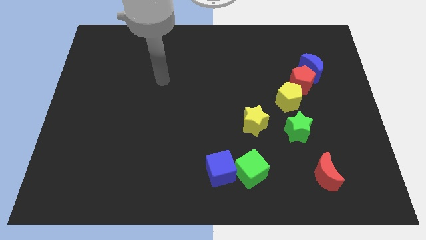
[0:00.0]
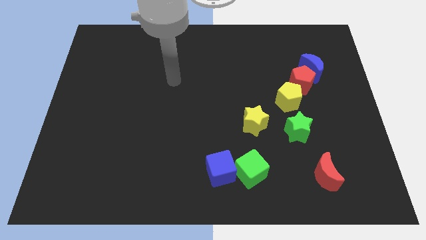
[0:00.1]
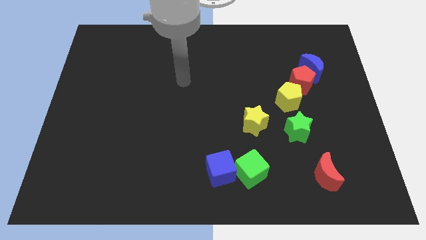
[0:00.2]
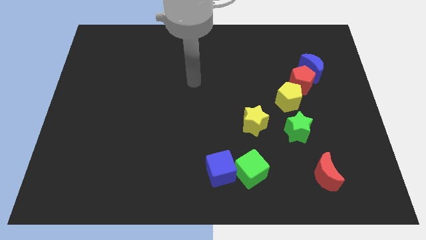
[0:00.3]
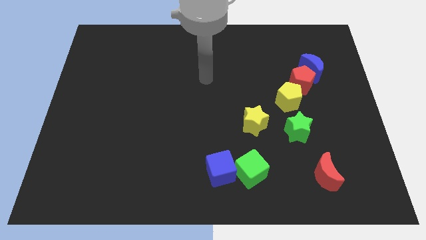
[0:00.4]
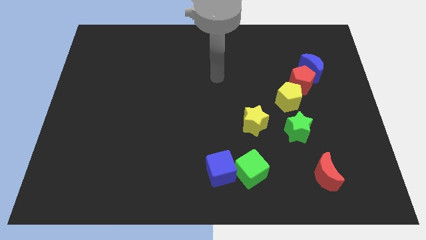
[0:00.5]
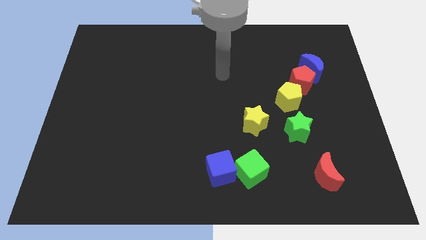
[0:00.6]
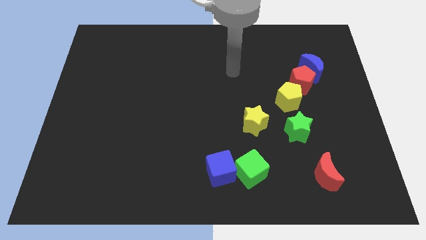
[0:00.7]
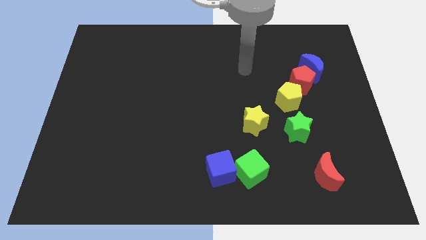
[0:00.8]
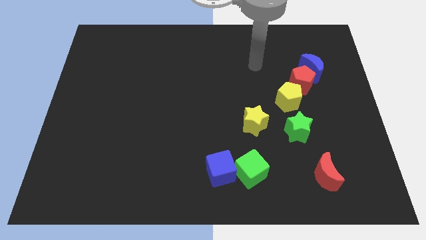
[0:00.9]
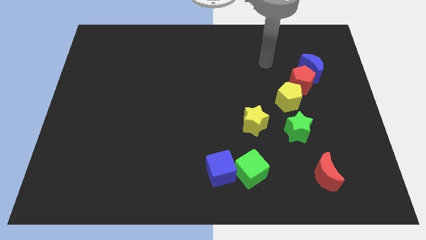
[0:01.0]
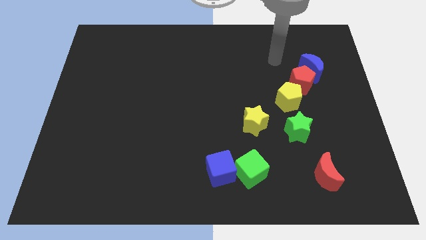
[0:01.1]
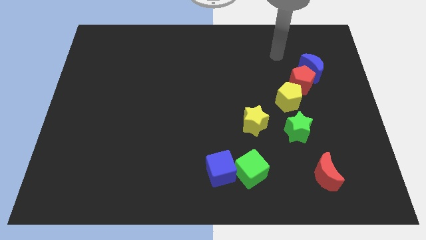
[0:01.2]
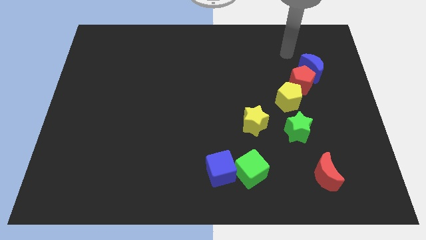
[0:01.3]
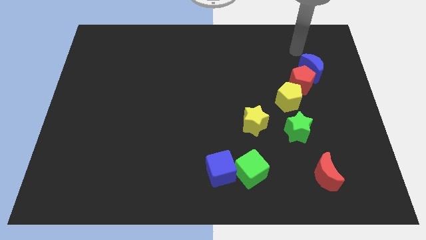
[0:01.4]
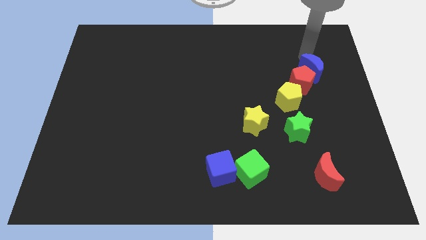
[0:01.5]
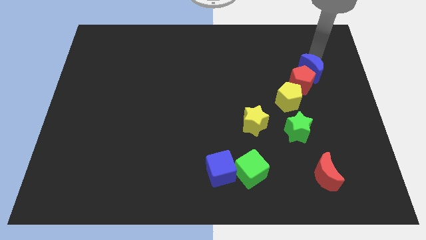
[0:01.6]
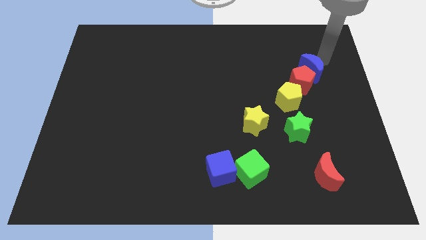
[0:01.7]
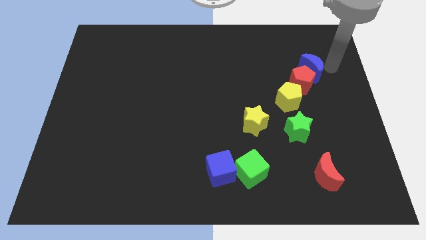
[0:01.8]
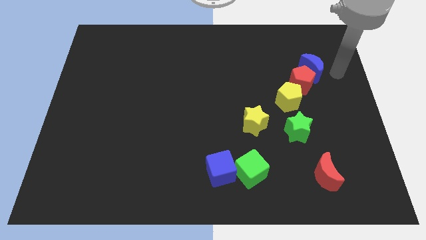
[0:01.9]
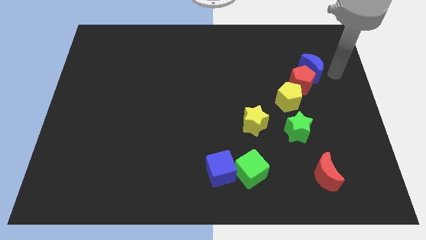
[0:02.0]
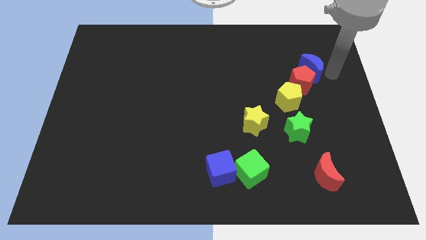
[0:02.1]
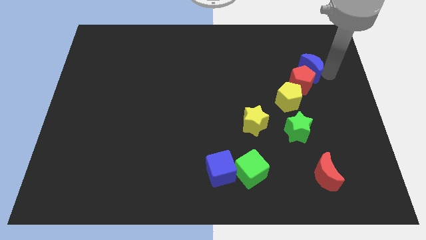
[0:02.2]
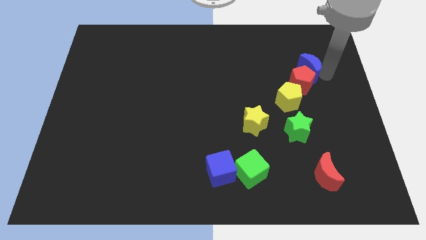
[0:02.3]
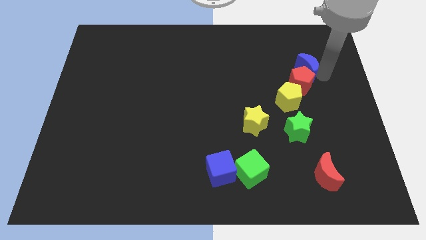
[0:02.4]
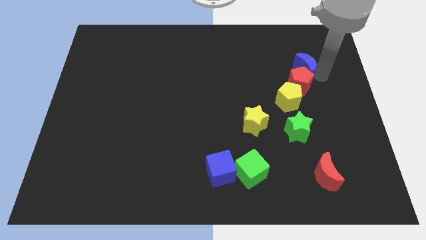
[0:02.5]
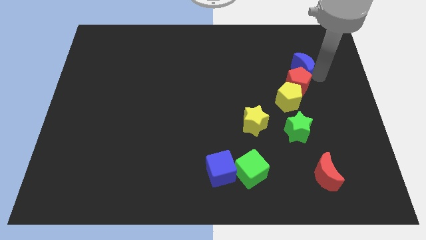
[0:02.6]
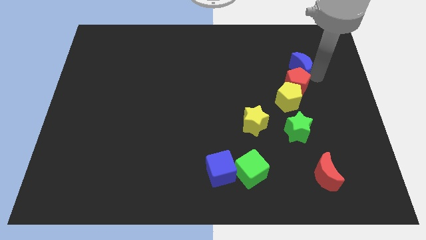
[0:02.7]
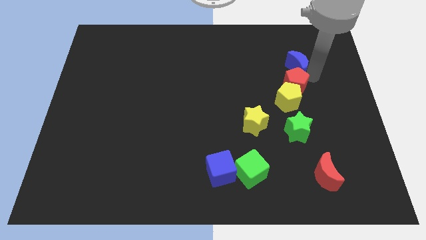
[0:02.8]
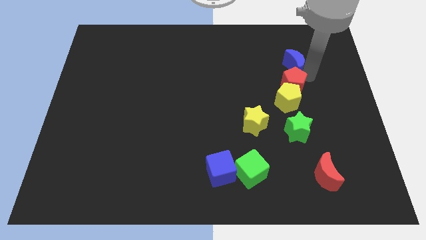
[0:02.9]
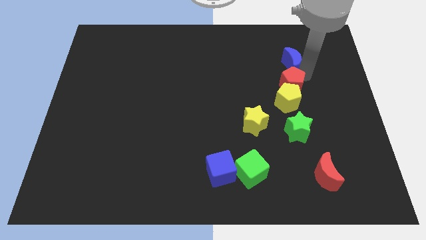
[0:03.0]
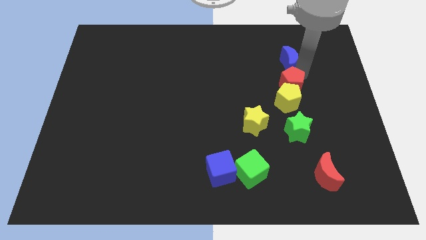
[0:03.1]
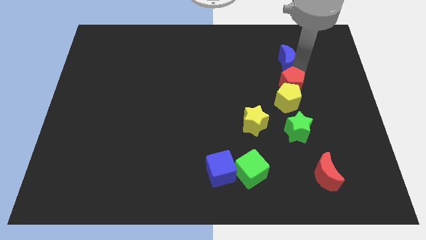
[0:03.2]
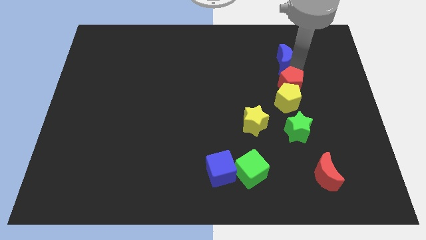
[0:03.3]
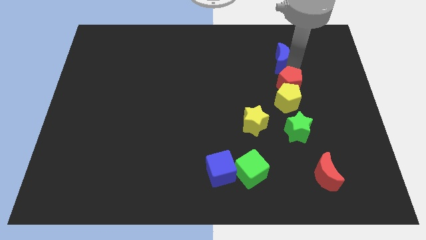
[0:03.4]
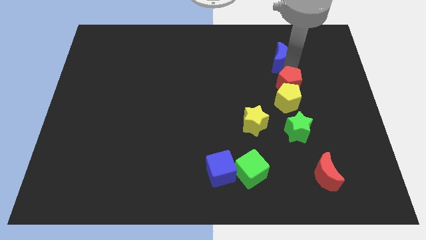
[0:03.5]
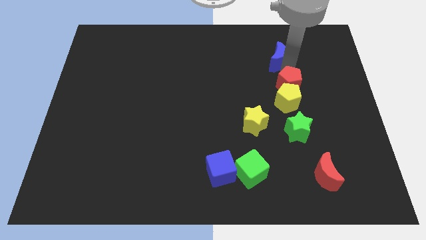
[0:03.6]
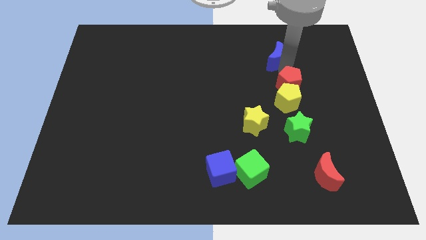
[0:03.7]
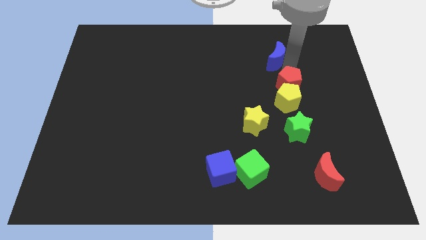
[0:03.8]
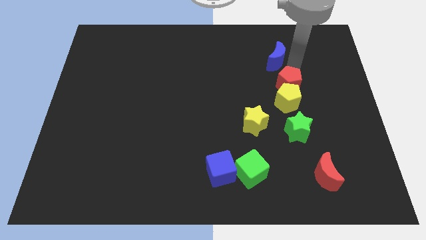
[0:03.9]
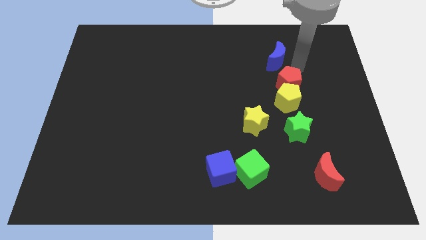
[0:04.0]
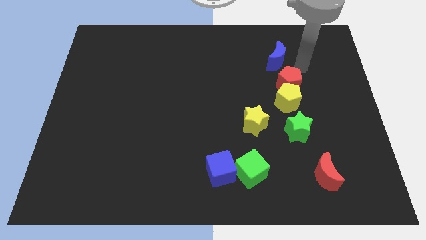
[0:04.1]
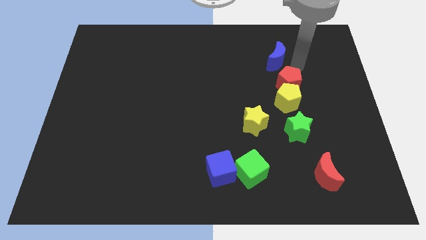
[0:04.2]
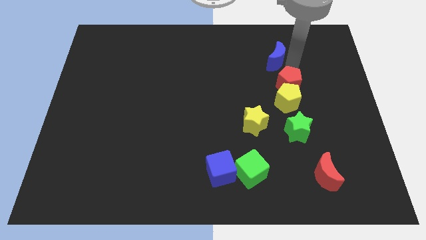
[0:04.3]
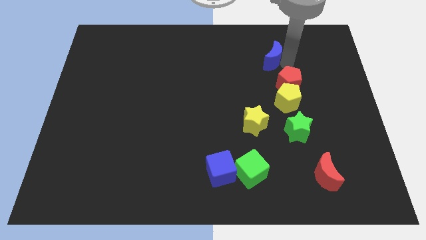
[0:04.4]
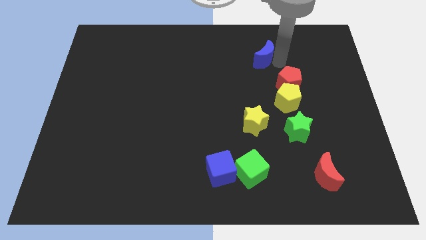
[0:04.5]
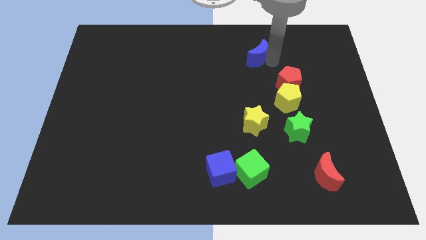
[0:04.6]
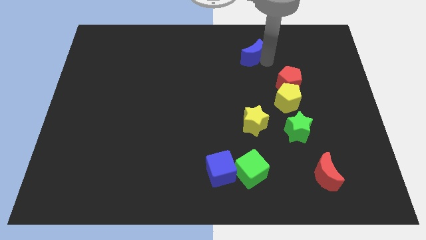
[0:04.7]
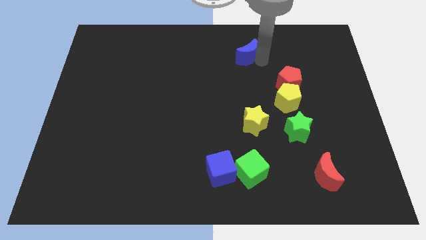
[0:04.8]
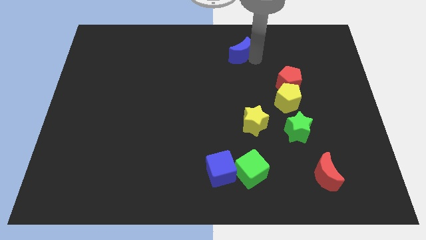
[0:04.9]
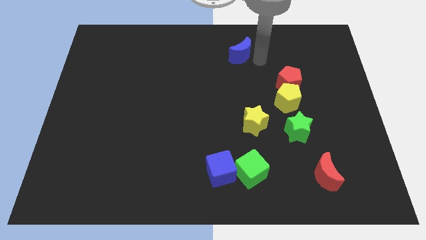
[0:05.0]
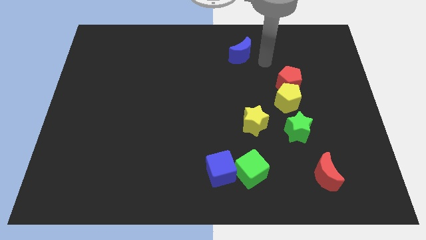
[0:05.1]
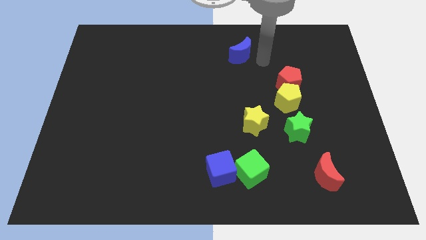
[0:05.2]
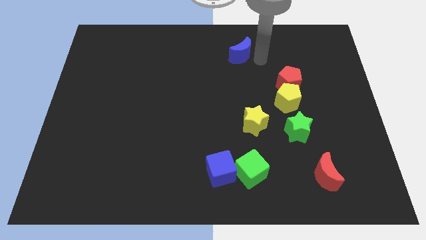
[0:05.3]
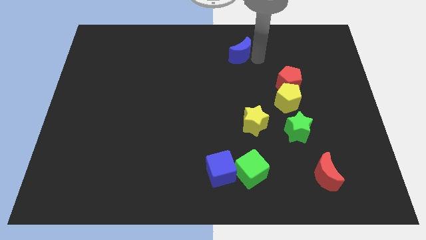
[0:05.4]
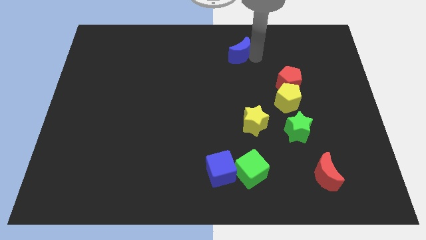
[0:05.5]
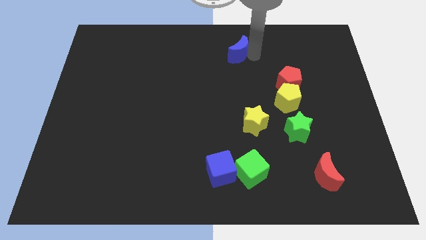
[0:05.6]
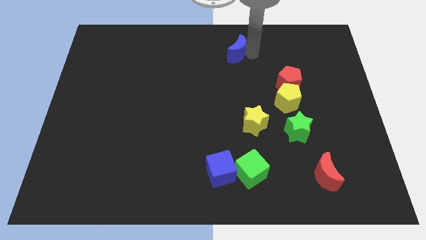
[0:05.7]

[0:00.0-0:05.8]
put the blue moon to the towards your base
